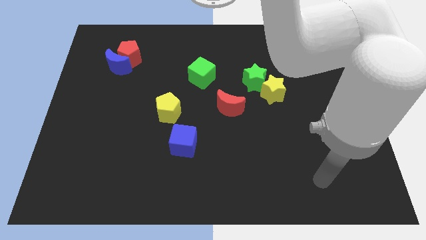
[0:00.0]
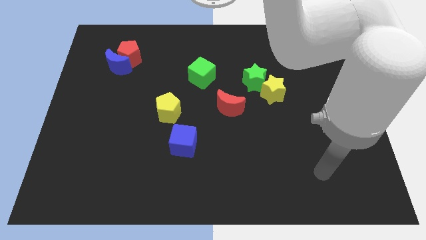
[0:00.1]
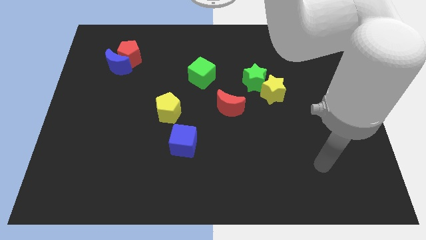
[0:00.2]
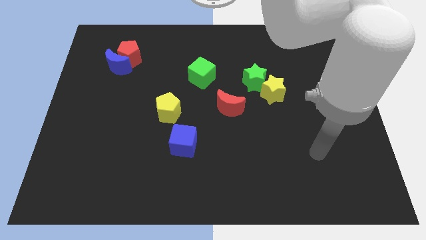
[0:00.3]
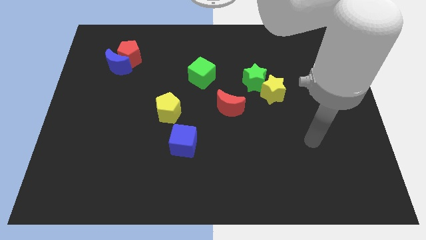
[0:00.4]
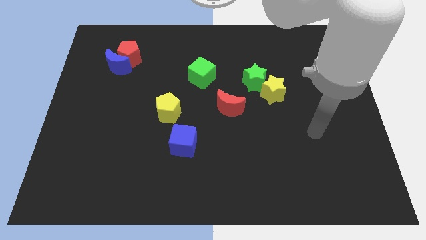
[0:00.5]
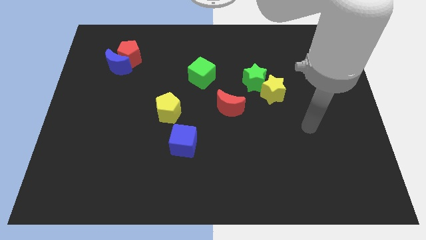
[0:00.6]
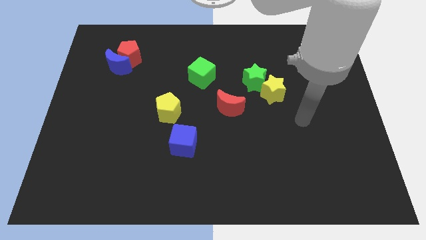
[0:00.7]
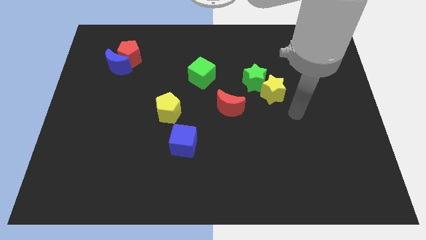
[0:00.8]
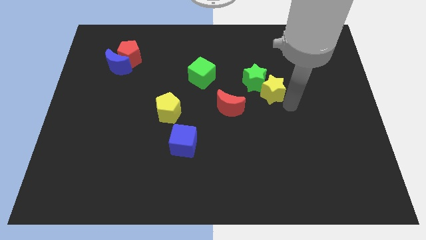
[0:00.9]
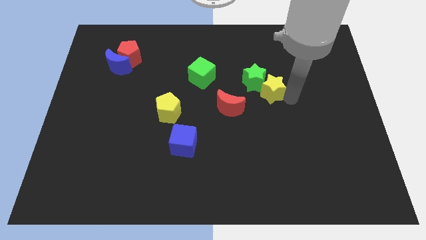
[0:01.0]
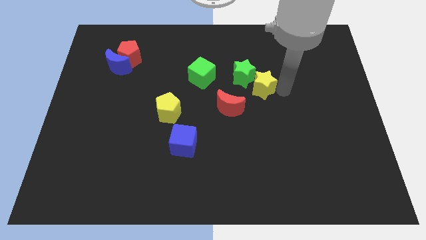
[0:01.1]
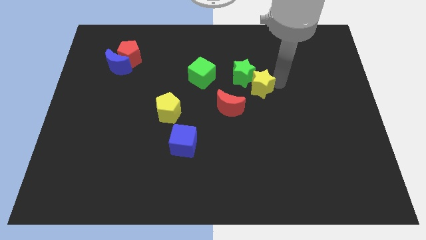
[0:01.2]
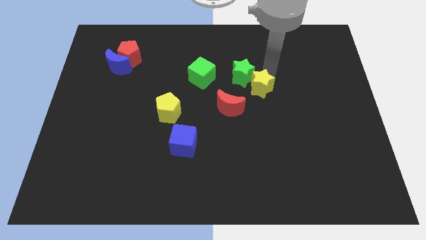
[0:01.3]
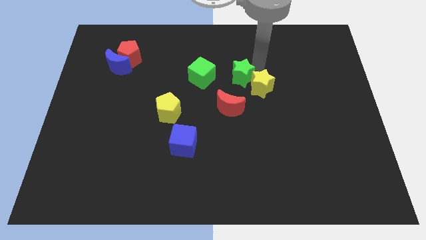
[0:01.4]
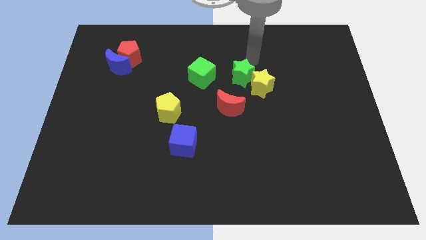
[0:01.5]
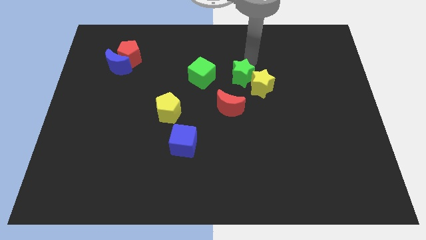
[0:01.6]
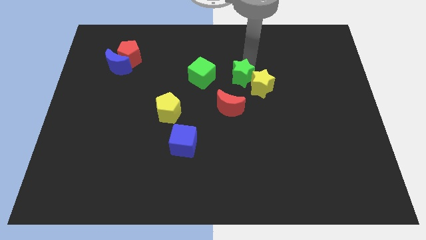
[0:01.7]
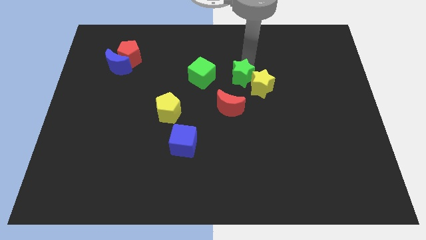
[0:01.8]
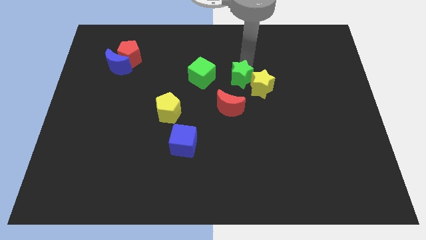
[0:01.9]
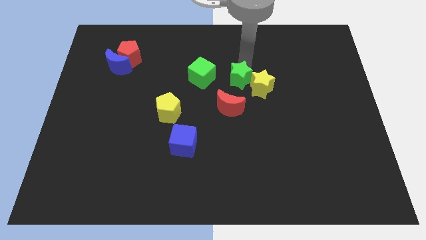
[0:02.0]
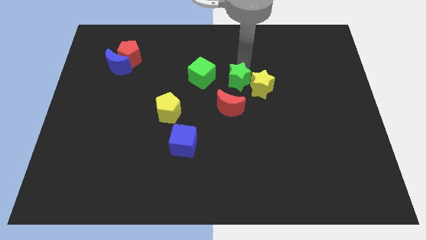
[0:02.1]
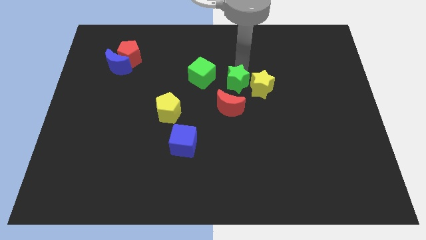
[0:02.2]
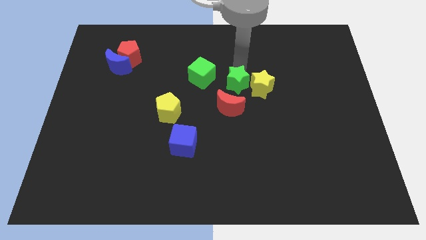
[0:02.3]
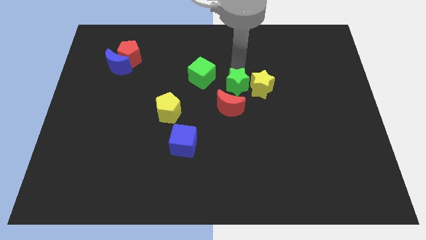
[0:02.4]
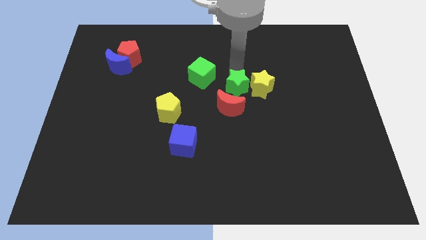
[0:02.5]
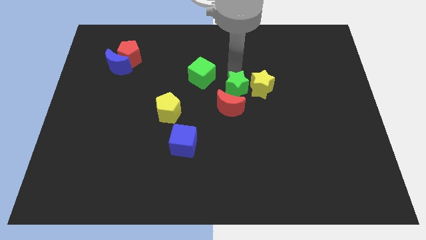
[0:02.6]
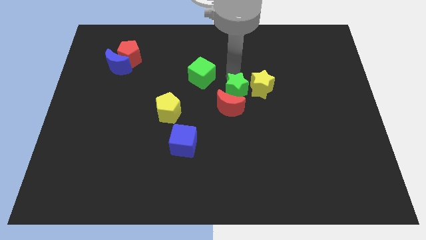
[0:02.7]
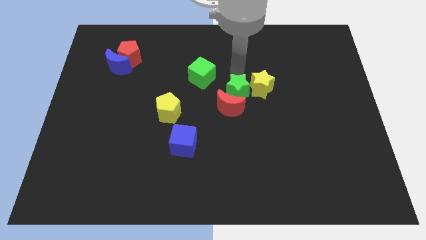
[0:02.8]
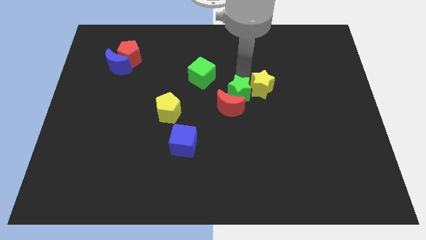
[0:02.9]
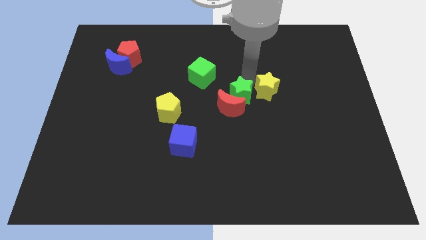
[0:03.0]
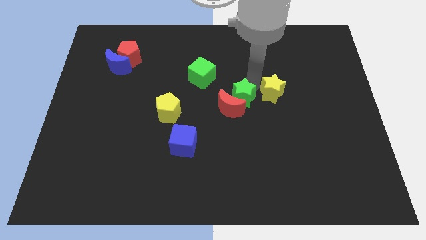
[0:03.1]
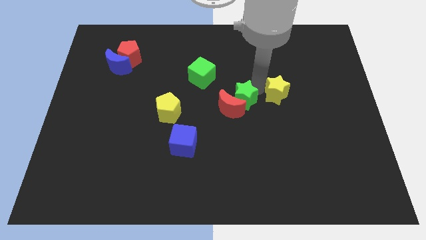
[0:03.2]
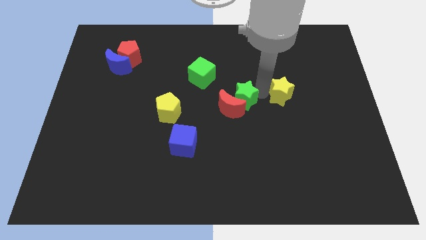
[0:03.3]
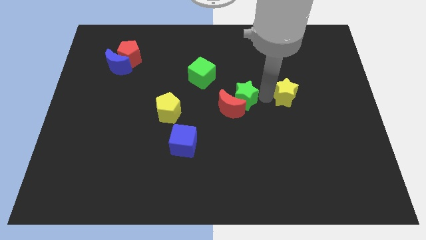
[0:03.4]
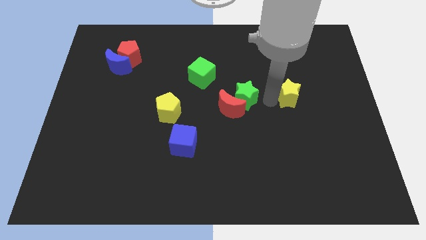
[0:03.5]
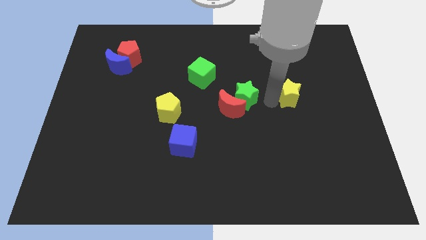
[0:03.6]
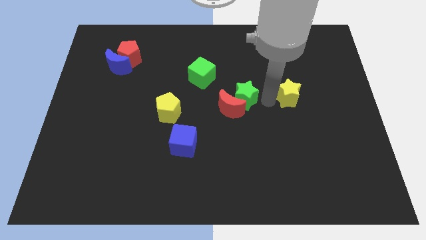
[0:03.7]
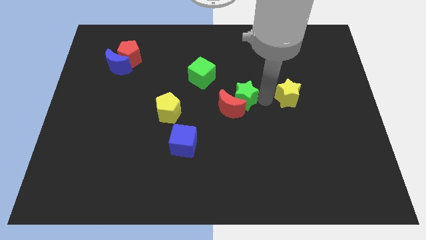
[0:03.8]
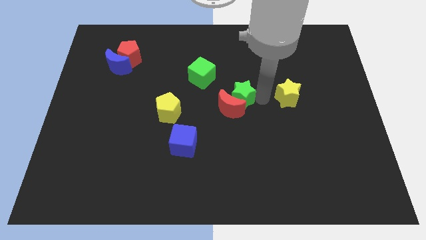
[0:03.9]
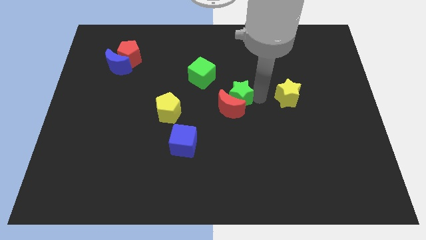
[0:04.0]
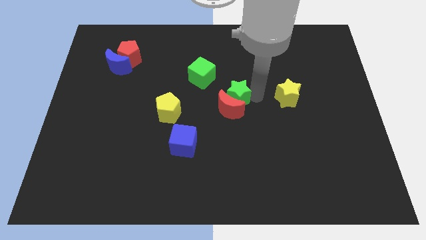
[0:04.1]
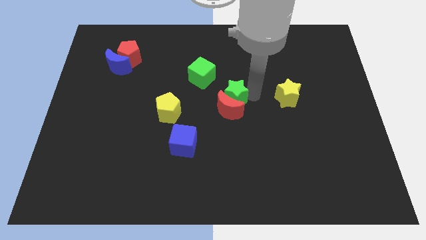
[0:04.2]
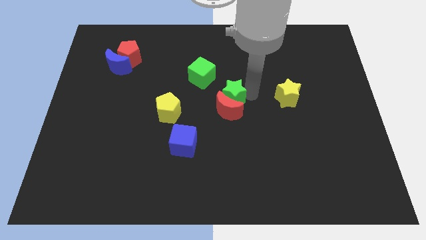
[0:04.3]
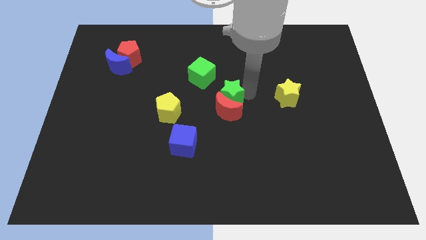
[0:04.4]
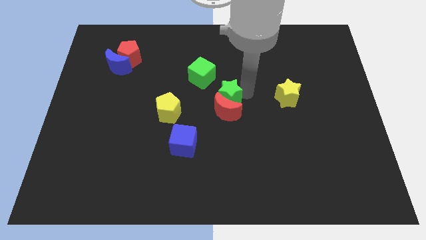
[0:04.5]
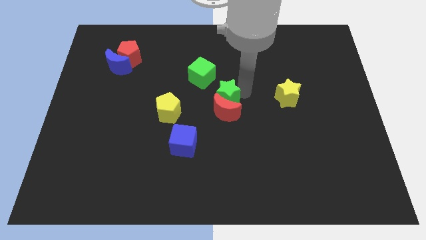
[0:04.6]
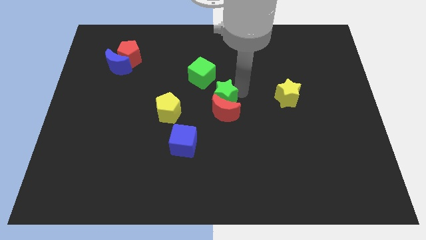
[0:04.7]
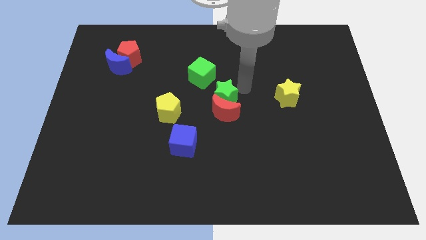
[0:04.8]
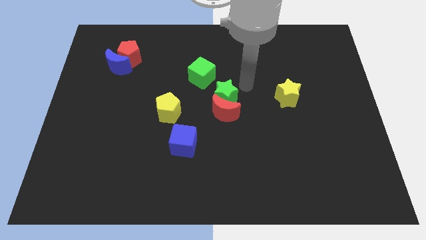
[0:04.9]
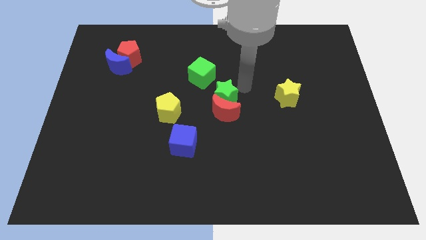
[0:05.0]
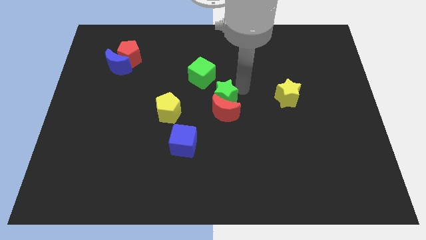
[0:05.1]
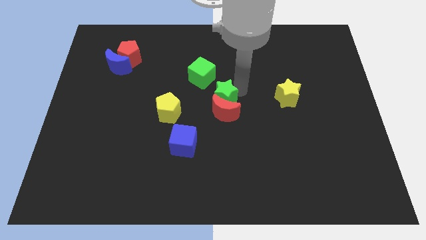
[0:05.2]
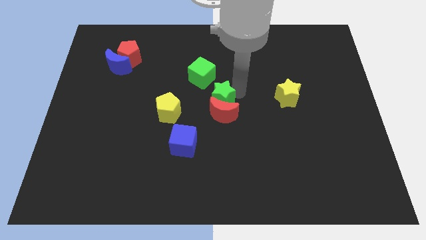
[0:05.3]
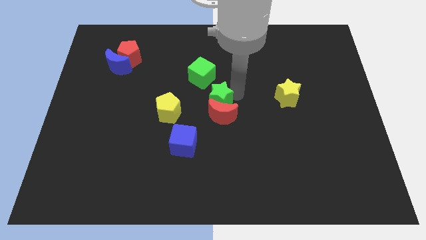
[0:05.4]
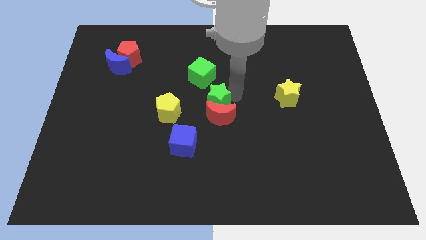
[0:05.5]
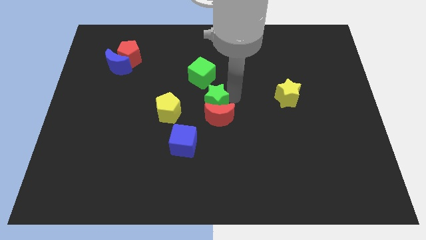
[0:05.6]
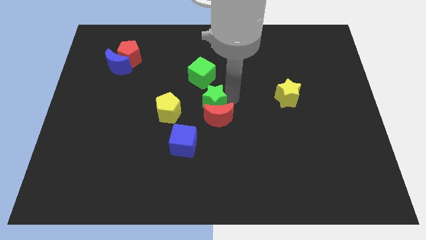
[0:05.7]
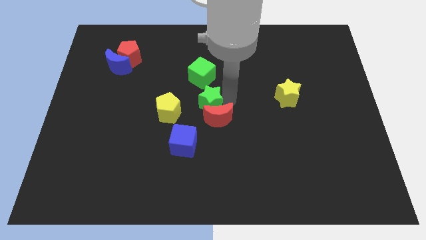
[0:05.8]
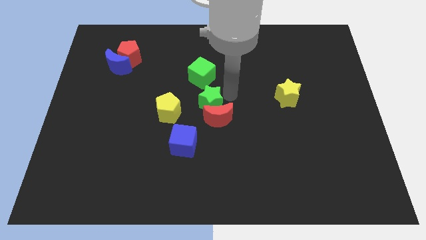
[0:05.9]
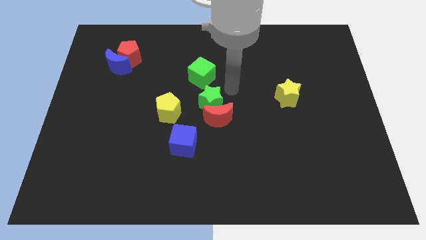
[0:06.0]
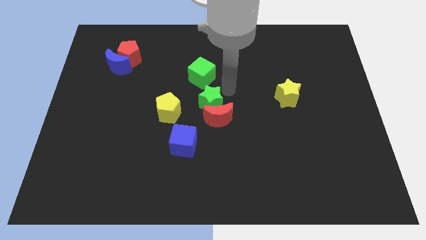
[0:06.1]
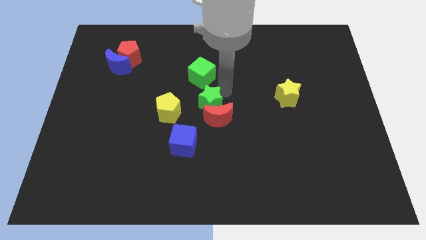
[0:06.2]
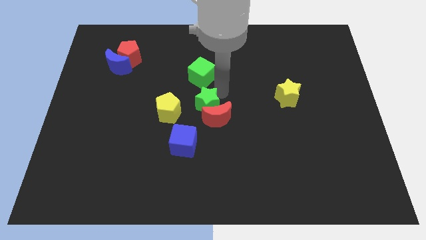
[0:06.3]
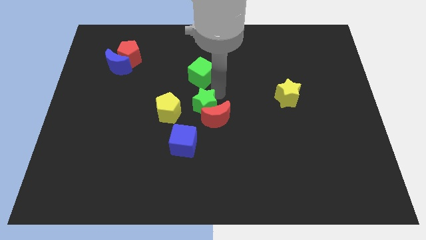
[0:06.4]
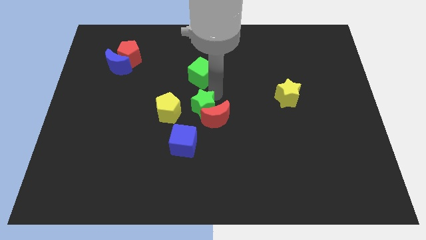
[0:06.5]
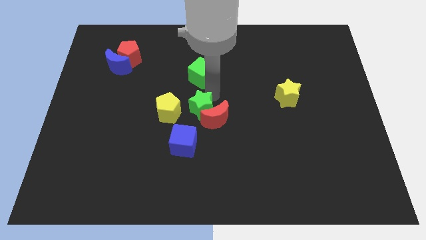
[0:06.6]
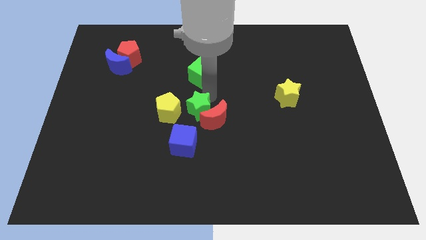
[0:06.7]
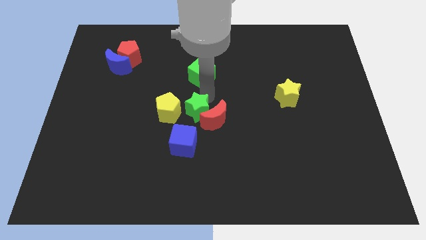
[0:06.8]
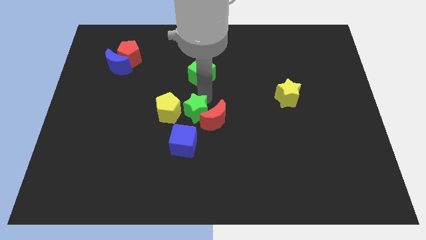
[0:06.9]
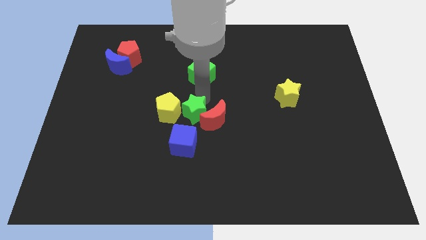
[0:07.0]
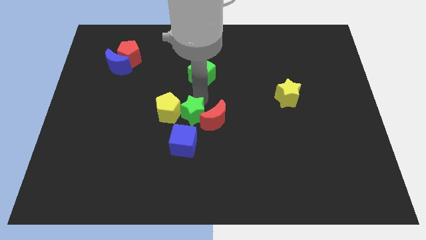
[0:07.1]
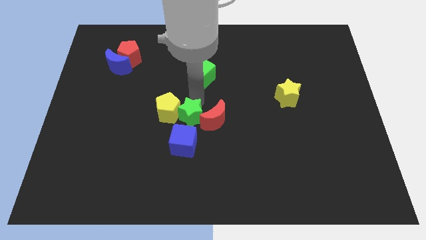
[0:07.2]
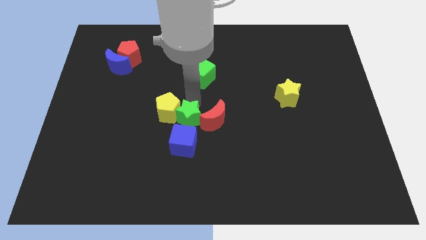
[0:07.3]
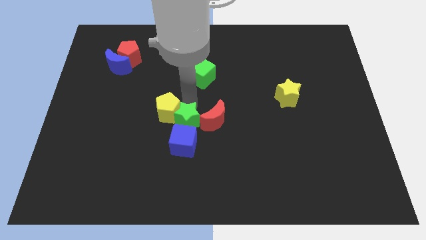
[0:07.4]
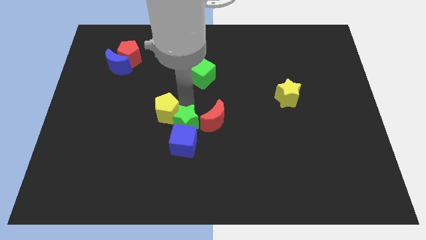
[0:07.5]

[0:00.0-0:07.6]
put the green star to the bottom side of the yellow pentagon
